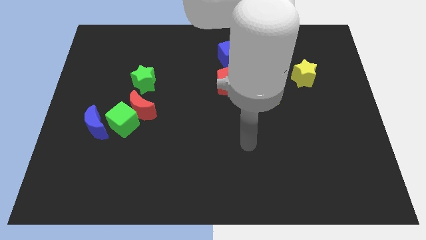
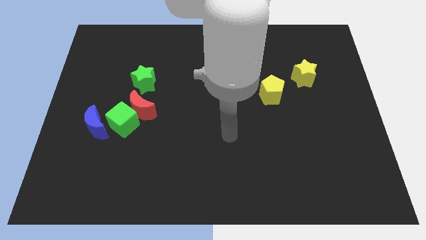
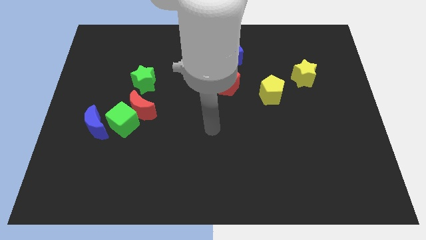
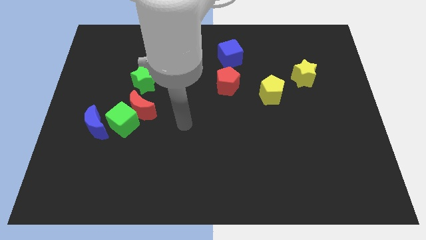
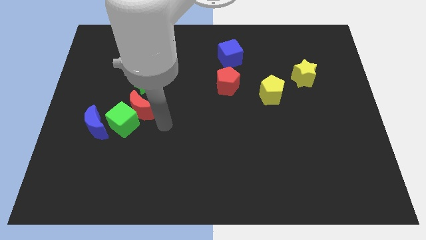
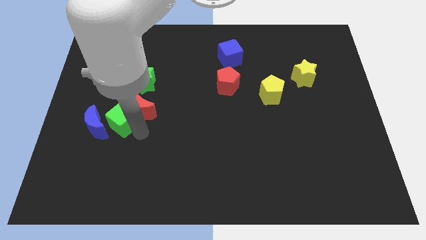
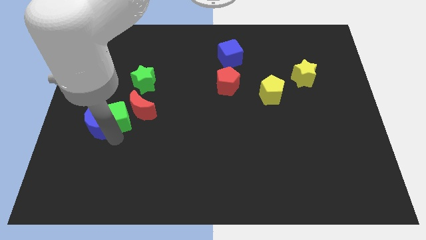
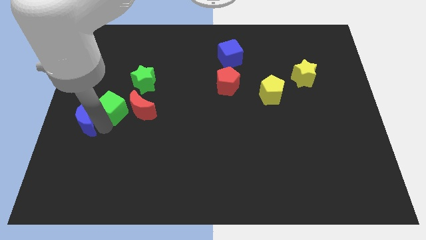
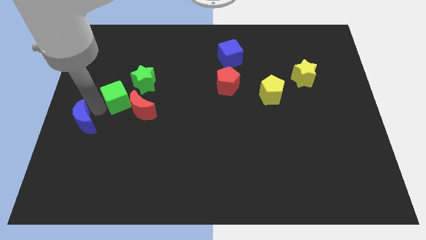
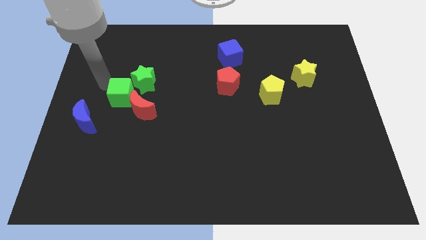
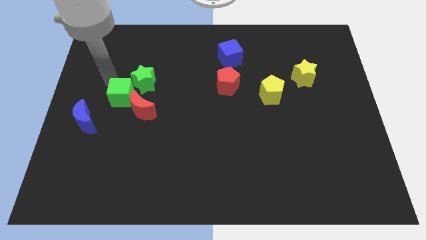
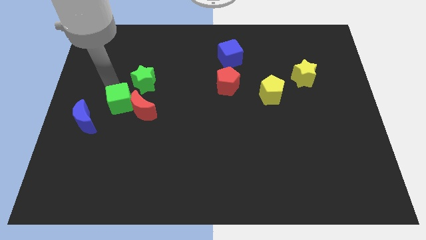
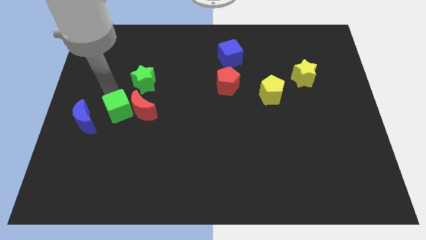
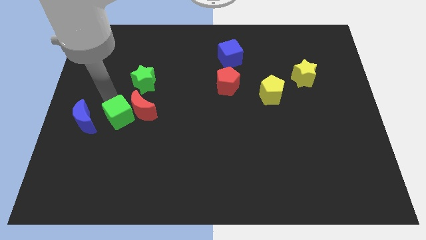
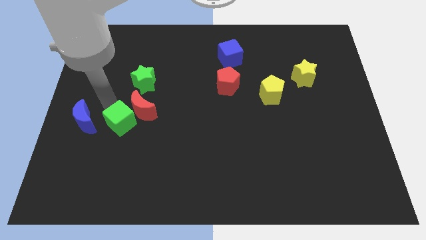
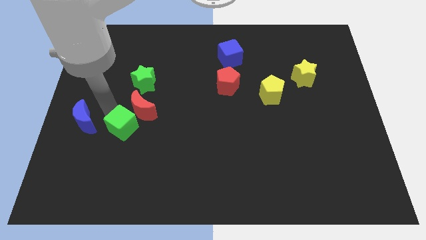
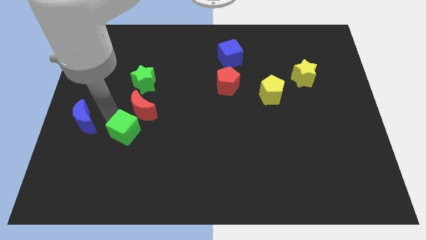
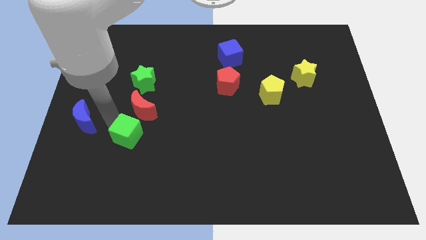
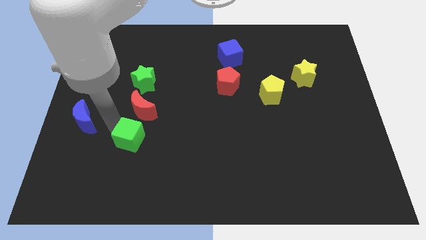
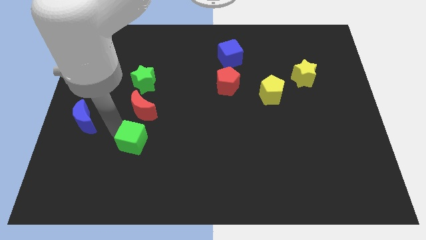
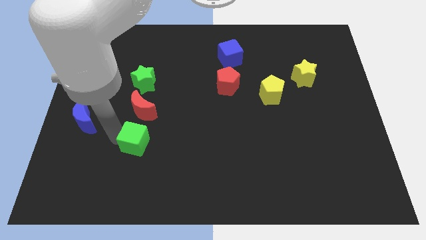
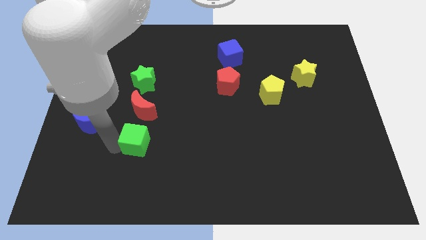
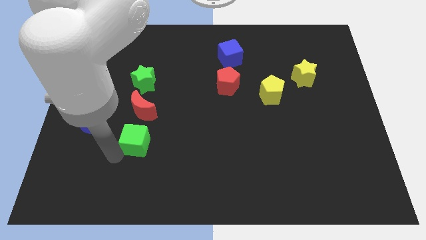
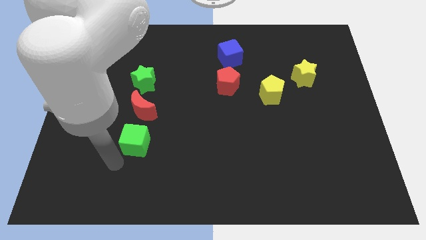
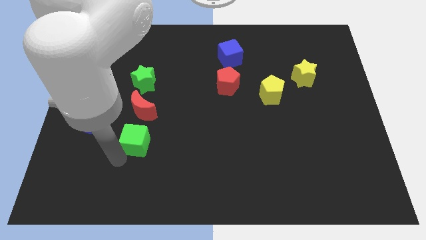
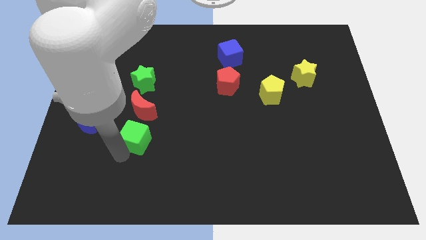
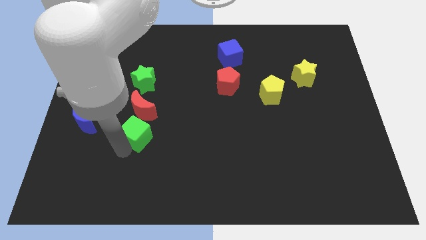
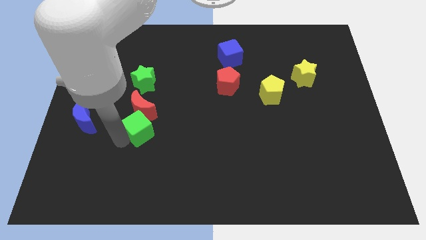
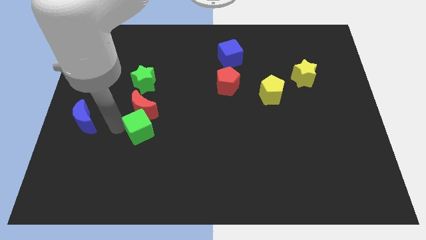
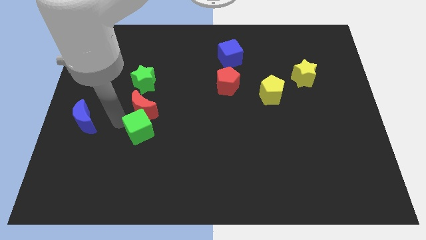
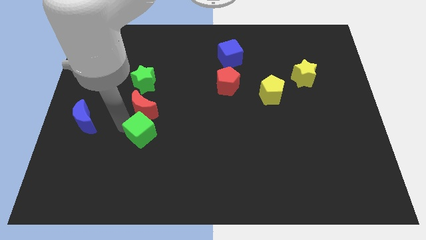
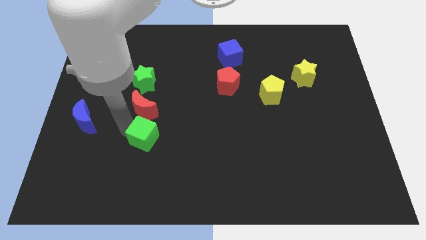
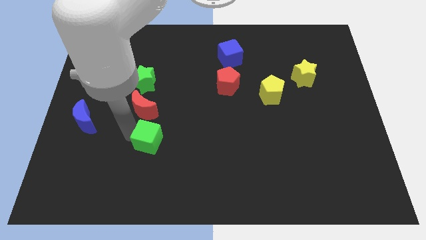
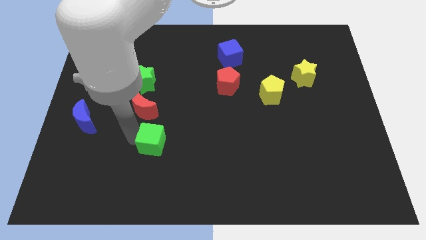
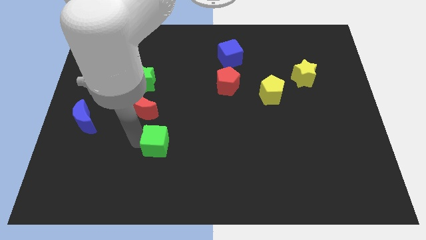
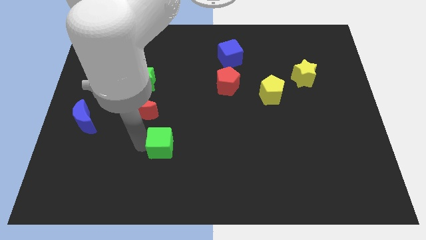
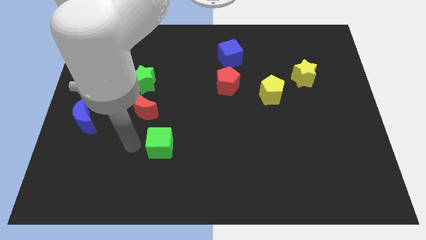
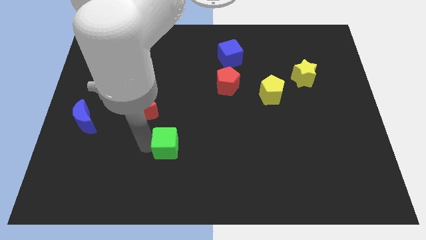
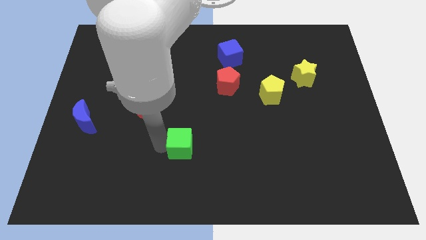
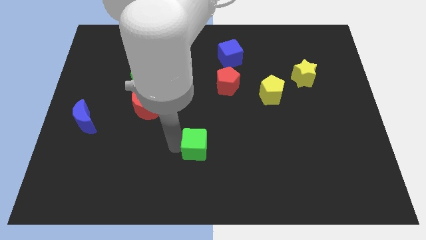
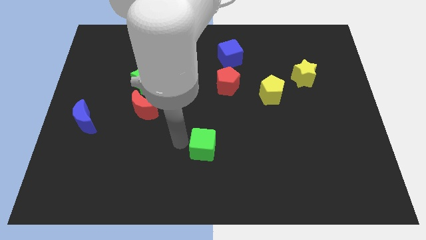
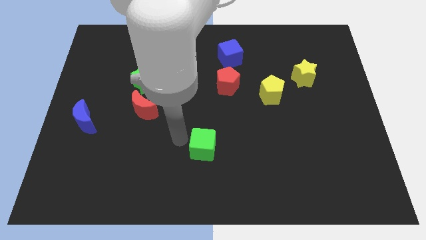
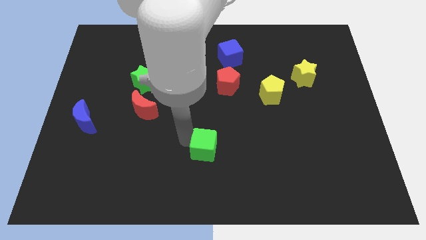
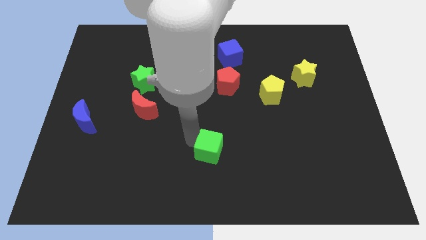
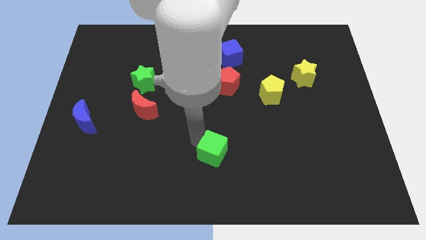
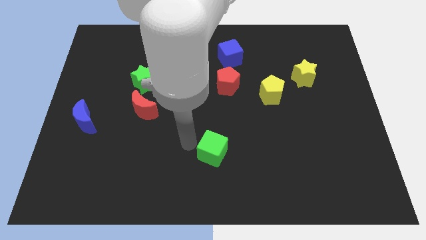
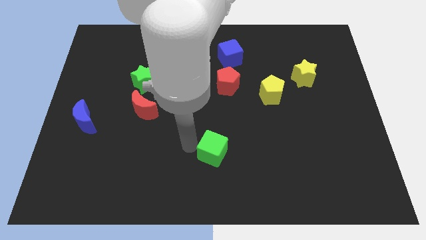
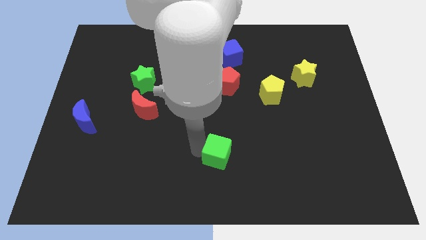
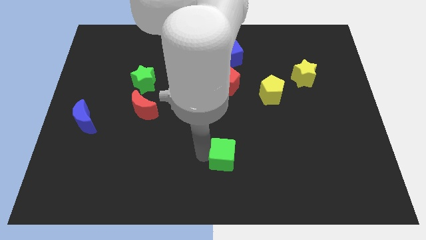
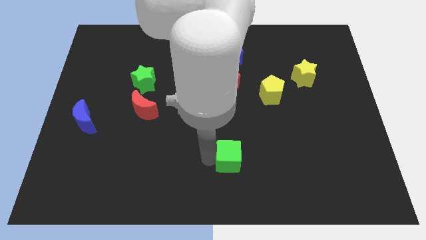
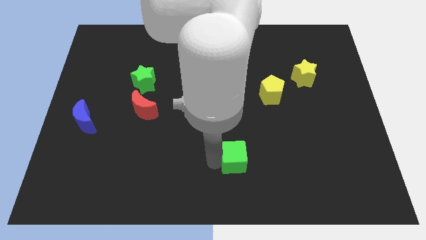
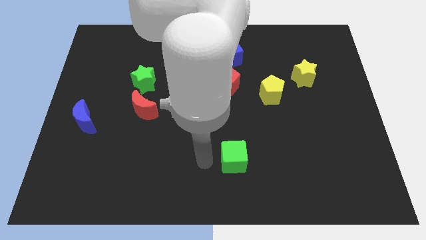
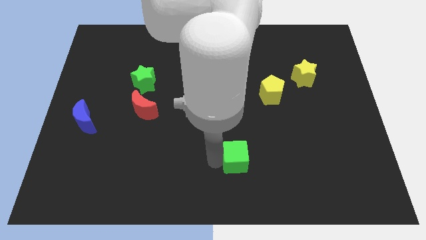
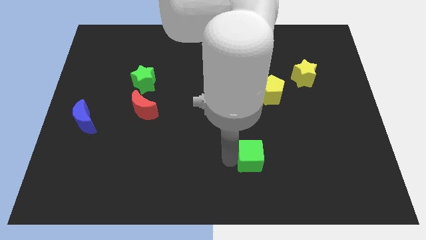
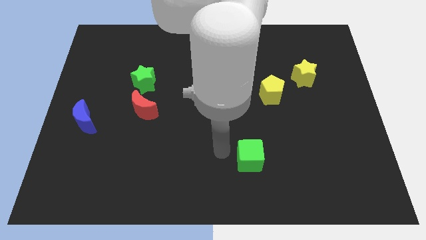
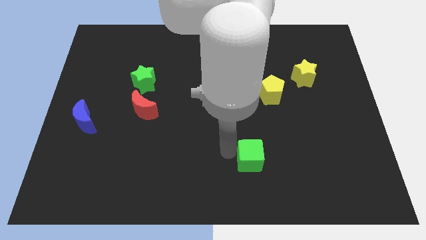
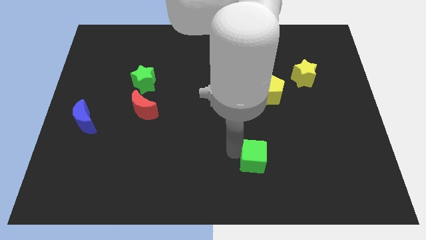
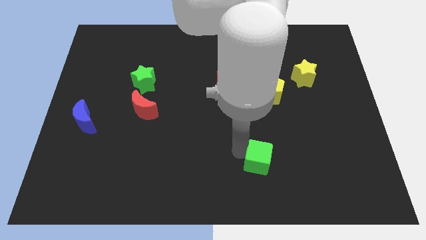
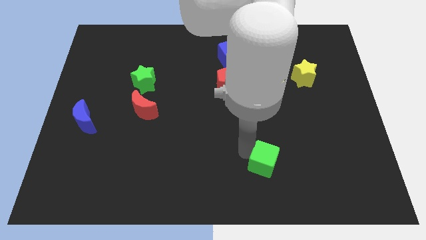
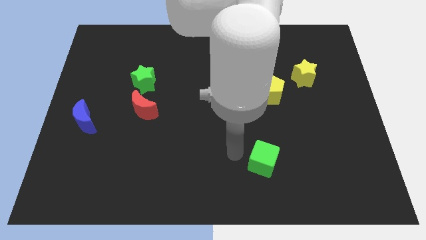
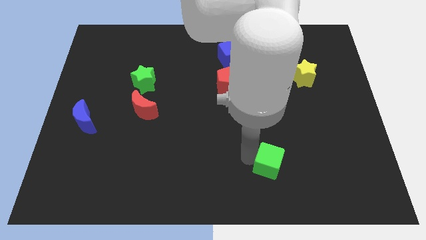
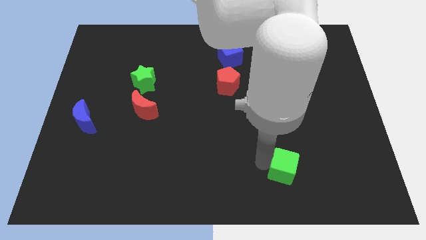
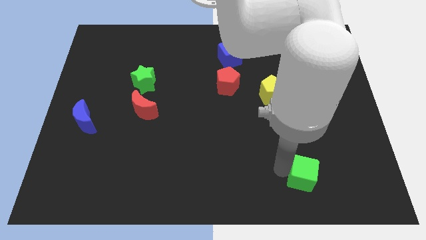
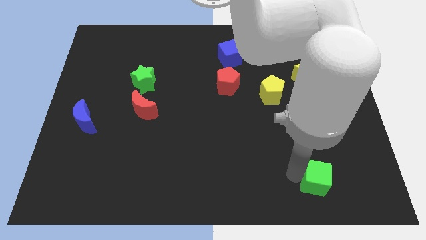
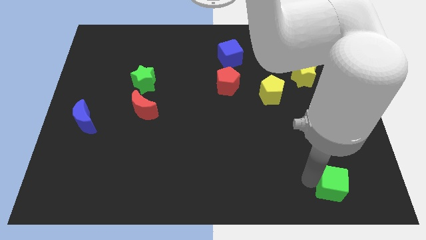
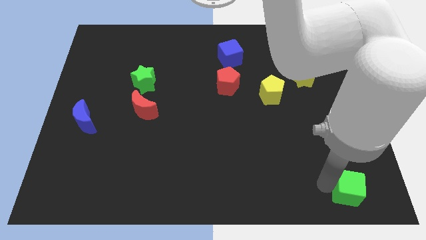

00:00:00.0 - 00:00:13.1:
move the green cube to the lower right corner

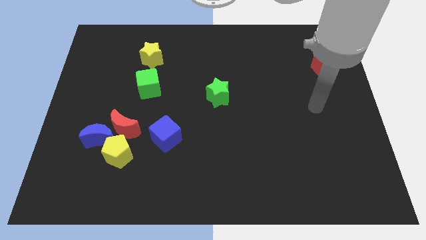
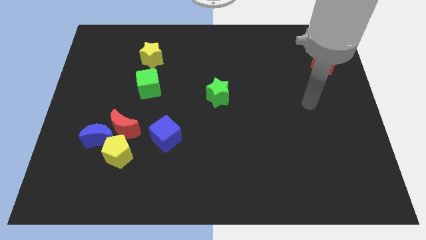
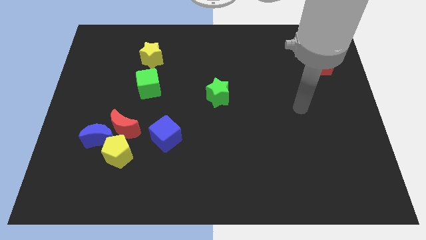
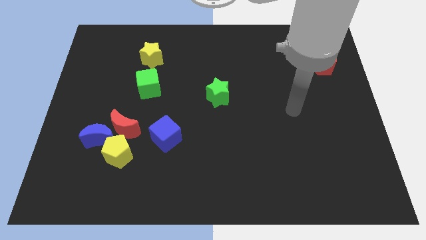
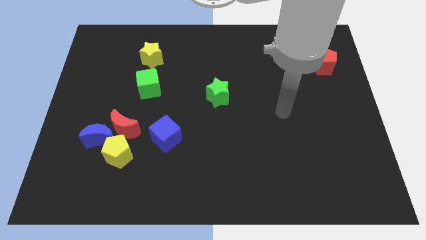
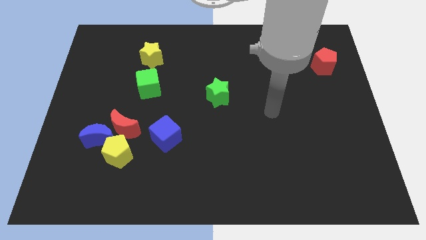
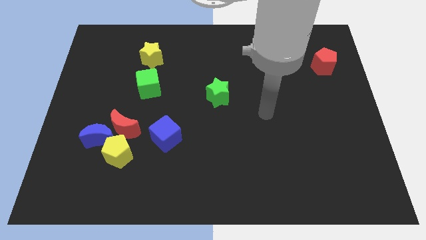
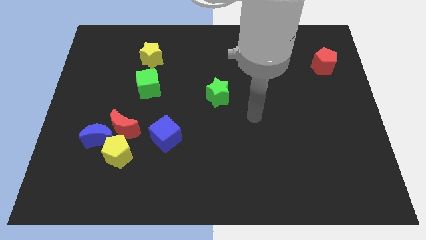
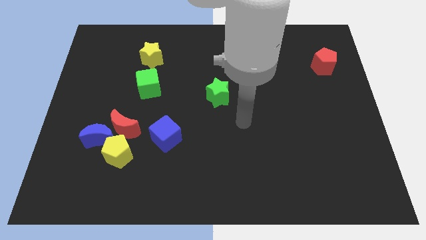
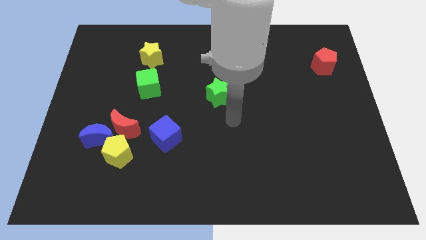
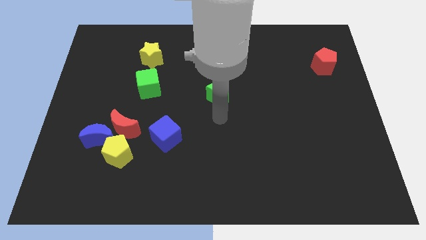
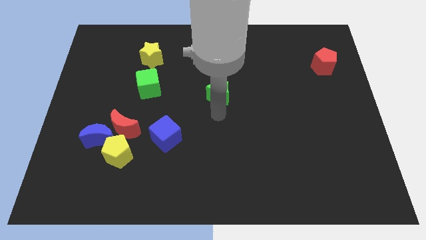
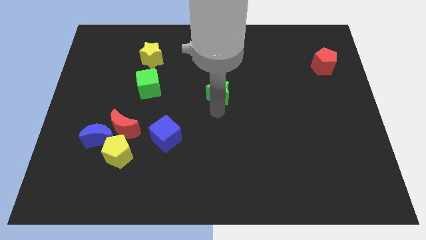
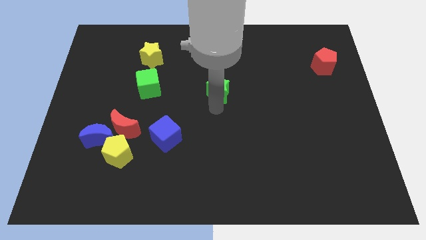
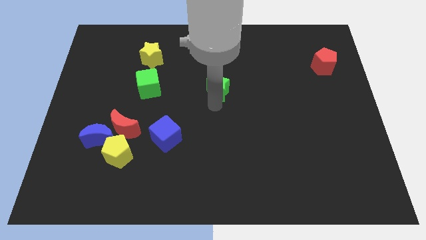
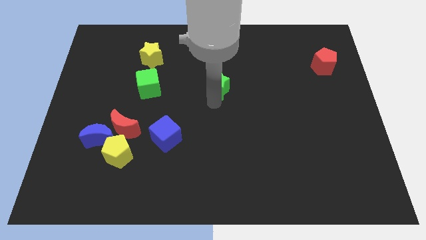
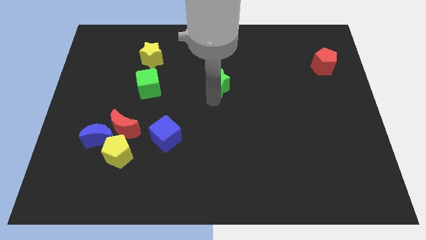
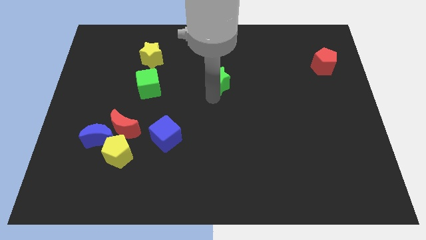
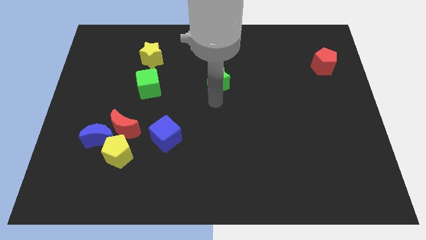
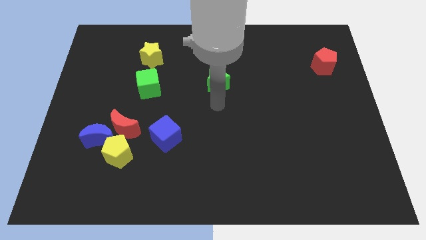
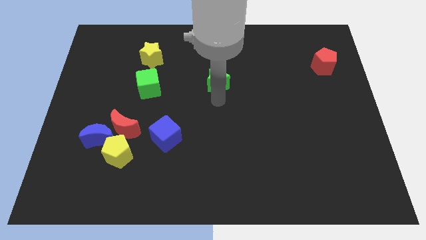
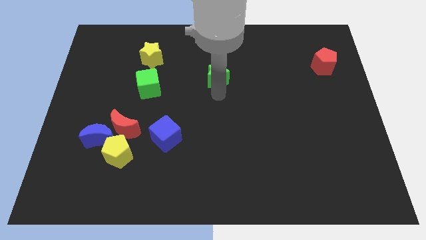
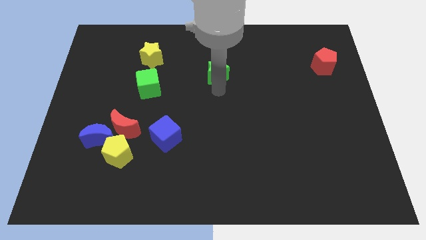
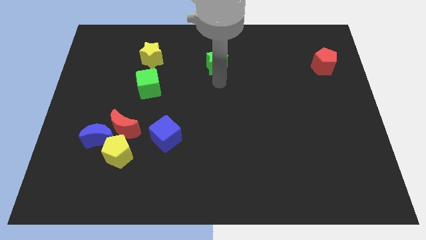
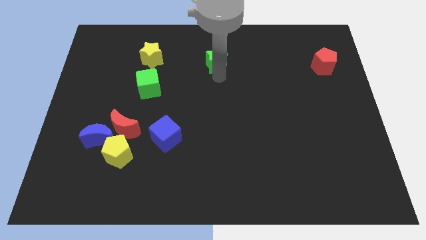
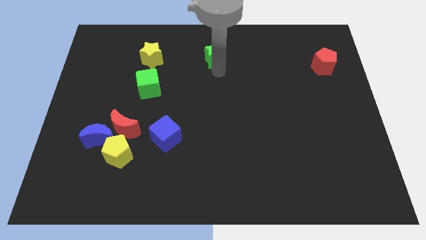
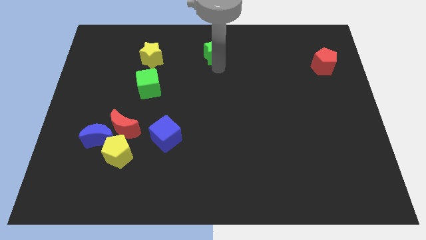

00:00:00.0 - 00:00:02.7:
put the green star to the top side
